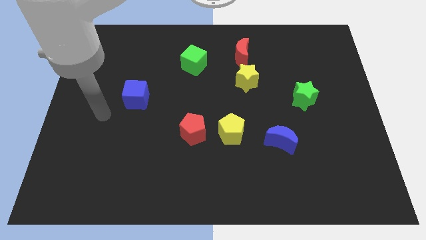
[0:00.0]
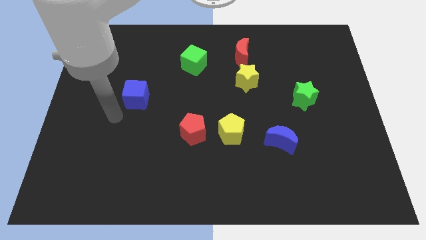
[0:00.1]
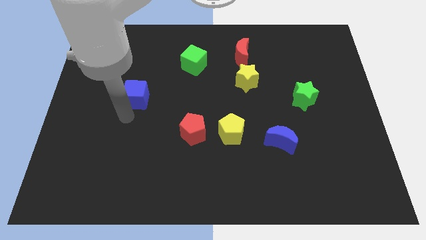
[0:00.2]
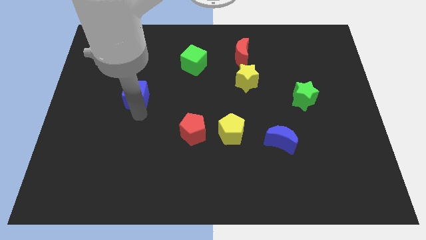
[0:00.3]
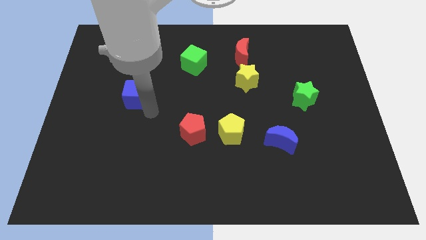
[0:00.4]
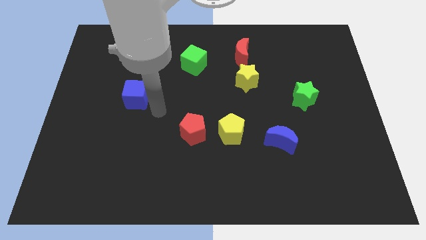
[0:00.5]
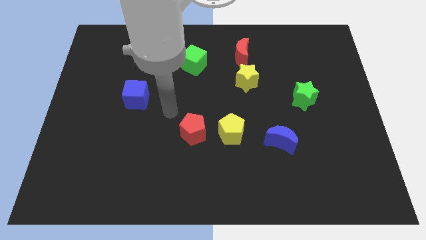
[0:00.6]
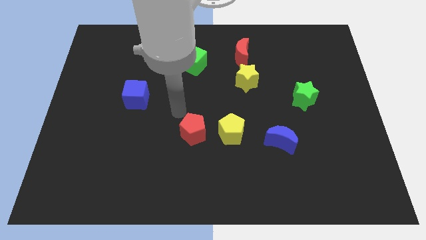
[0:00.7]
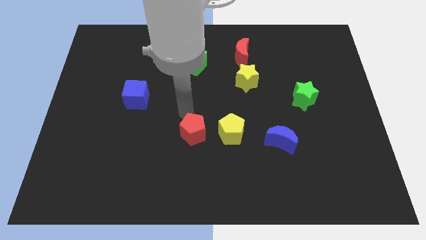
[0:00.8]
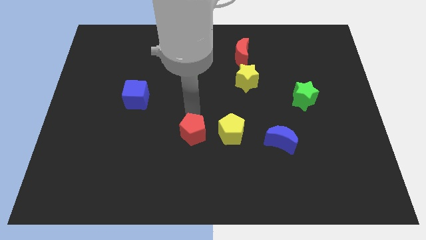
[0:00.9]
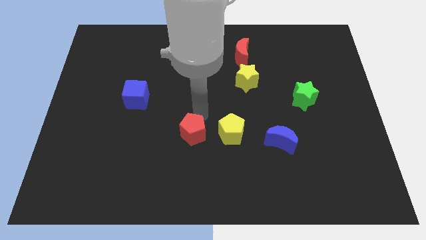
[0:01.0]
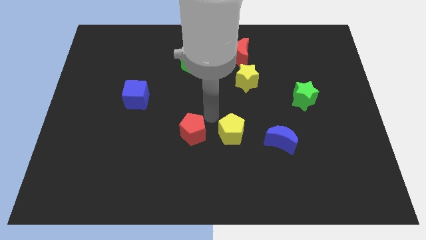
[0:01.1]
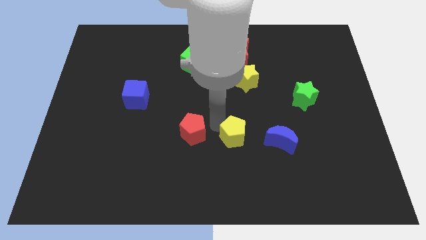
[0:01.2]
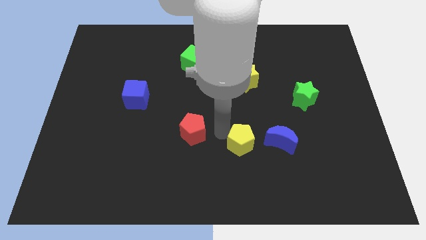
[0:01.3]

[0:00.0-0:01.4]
move the red pentagon away from the yellow pentagon

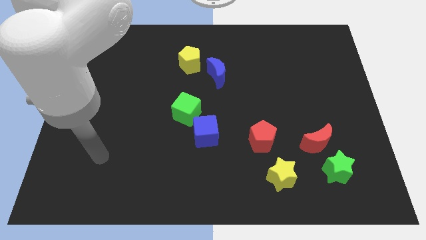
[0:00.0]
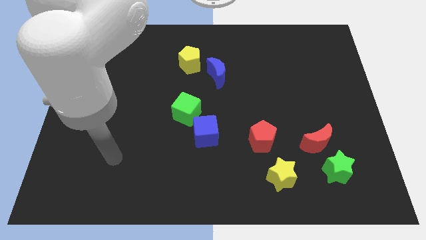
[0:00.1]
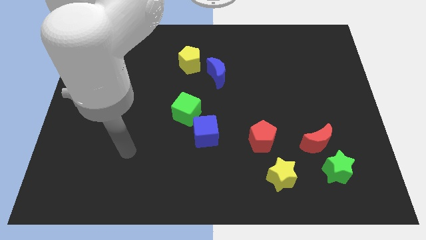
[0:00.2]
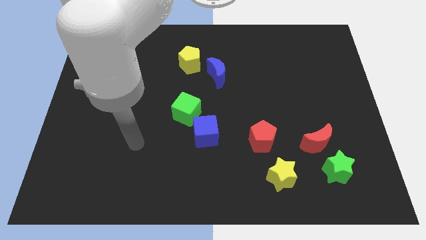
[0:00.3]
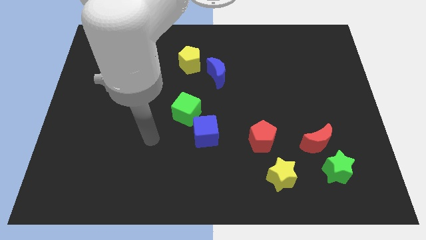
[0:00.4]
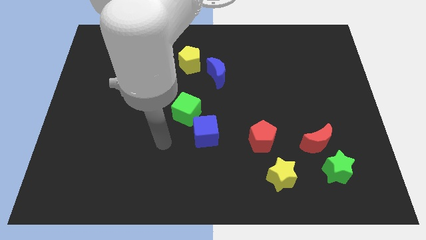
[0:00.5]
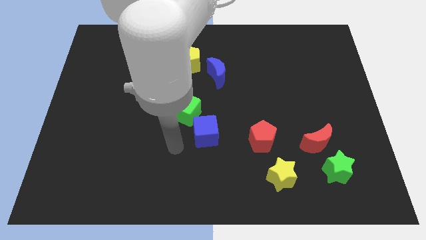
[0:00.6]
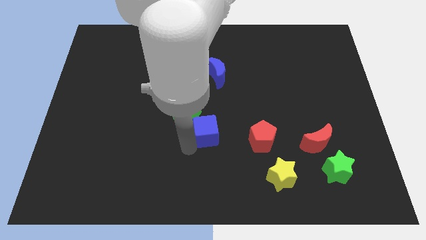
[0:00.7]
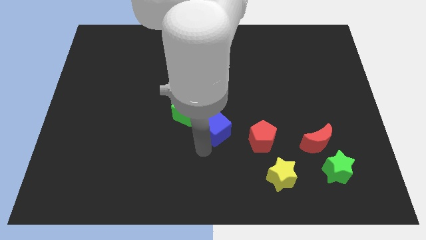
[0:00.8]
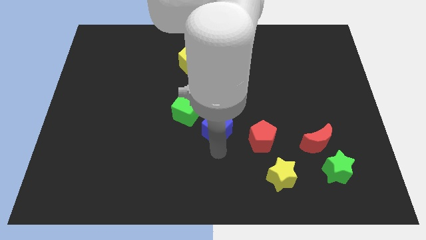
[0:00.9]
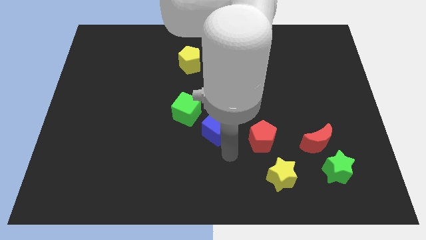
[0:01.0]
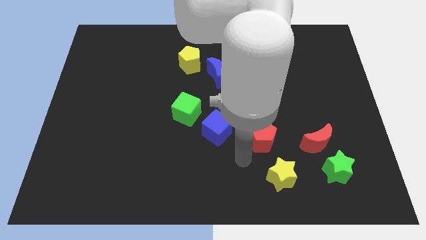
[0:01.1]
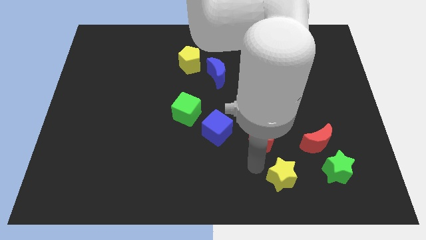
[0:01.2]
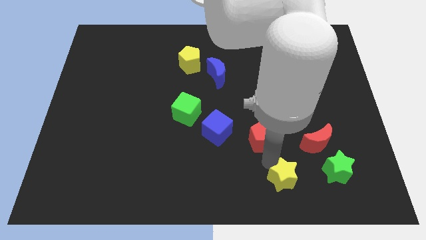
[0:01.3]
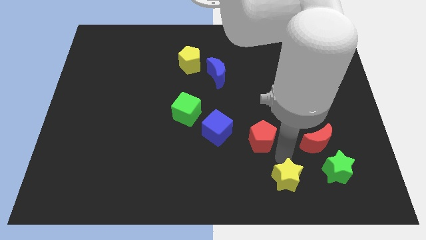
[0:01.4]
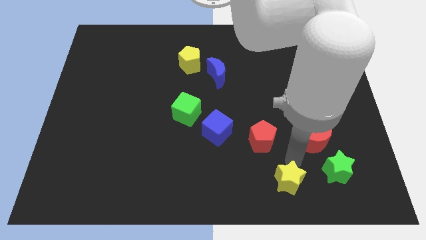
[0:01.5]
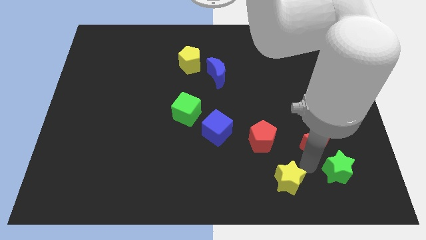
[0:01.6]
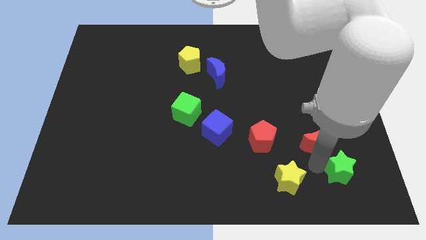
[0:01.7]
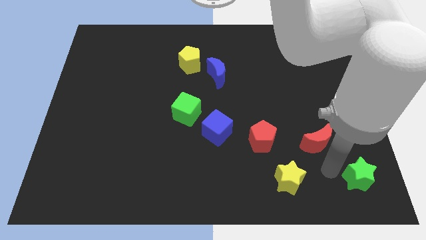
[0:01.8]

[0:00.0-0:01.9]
pull the red moon apart from the green star

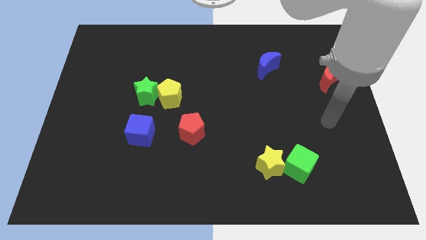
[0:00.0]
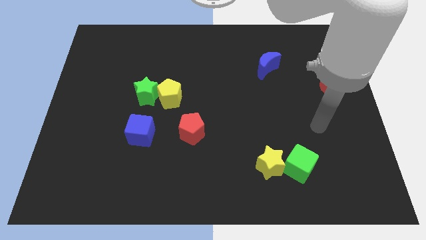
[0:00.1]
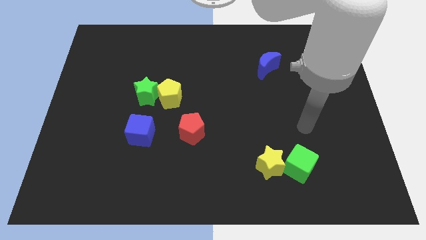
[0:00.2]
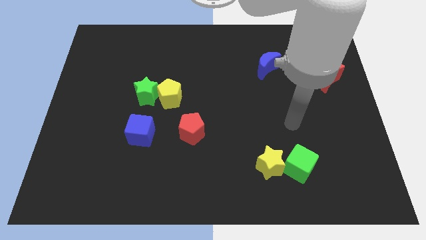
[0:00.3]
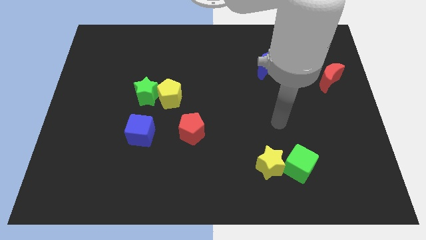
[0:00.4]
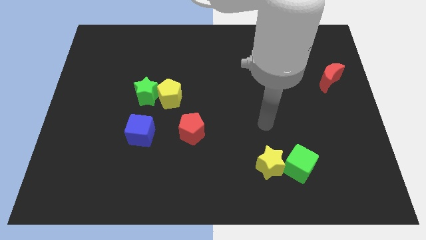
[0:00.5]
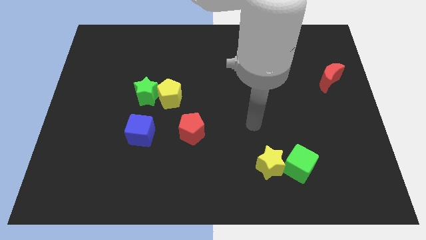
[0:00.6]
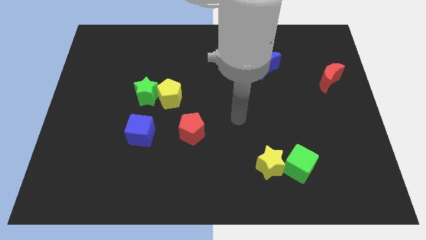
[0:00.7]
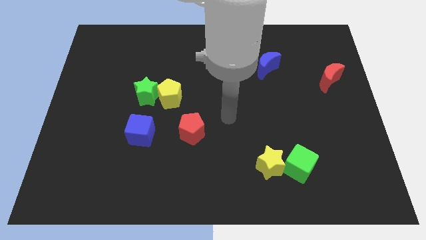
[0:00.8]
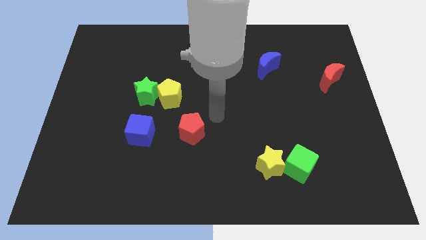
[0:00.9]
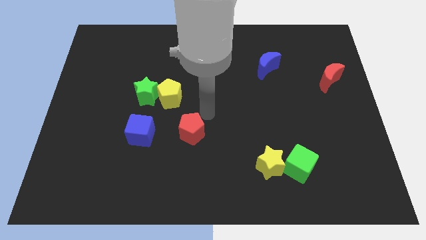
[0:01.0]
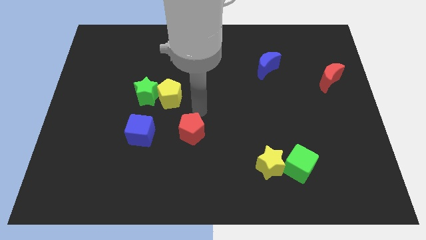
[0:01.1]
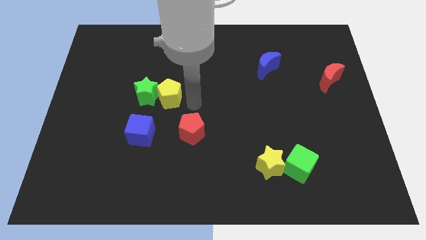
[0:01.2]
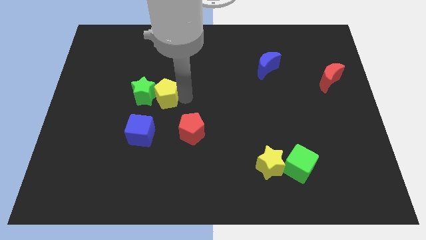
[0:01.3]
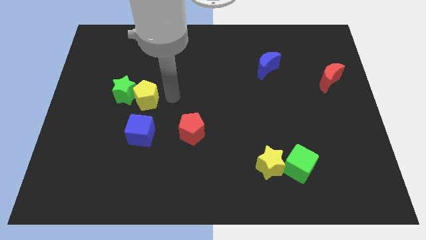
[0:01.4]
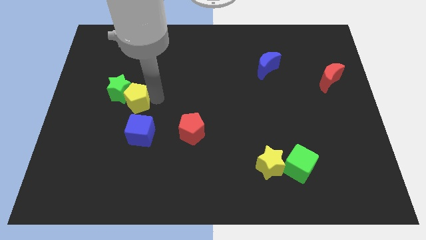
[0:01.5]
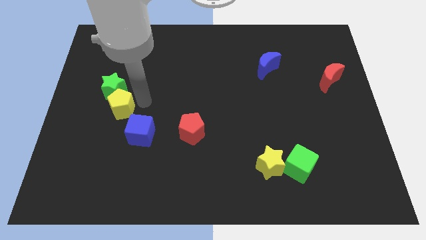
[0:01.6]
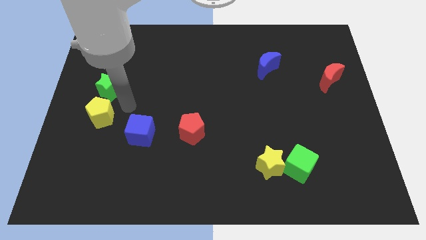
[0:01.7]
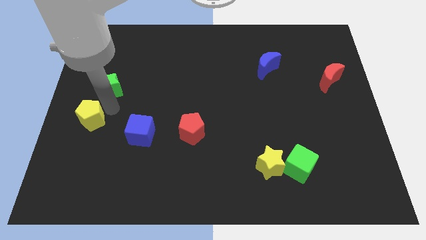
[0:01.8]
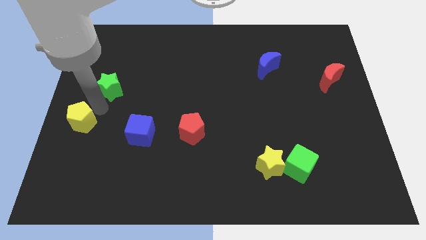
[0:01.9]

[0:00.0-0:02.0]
move the green star away from the yellow pentagon

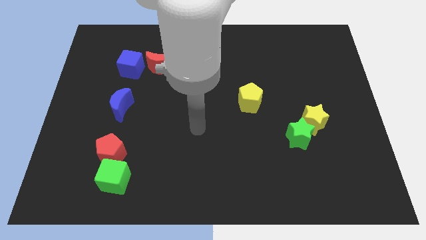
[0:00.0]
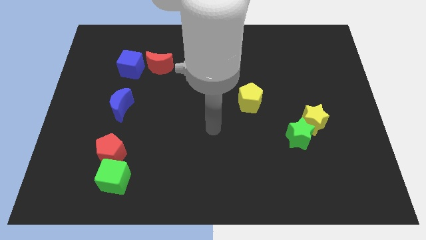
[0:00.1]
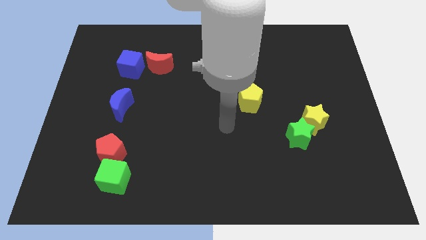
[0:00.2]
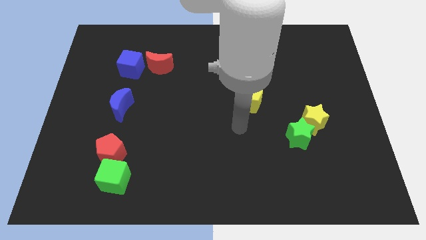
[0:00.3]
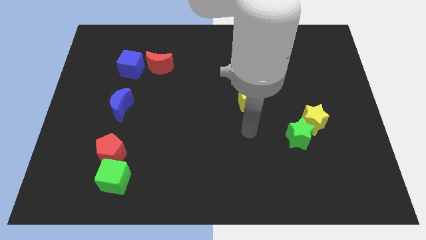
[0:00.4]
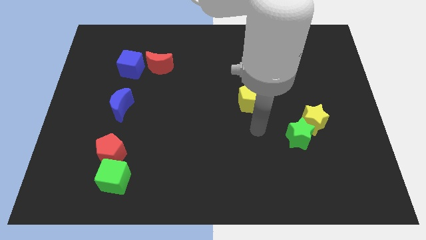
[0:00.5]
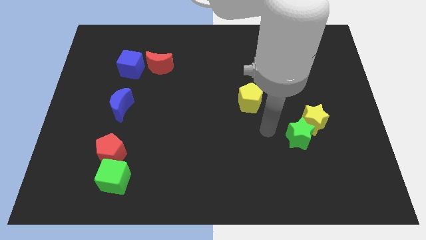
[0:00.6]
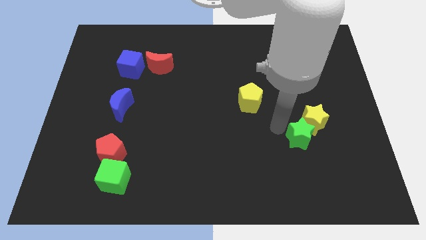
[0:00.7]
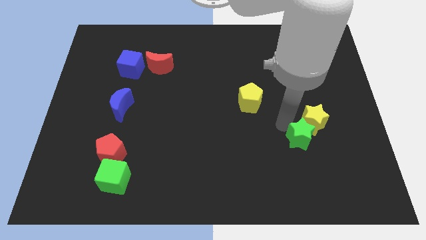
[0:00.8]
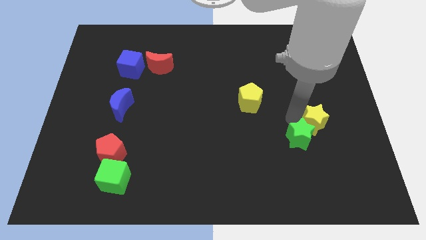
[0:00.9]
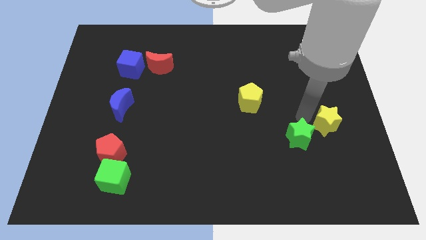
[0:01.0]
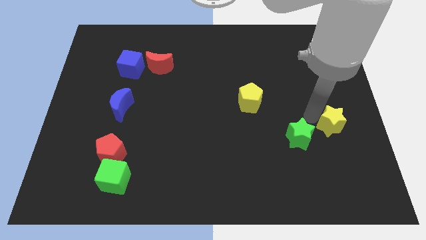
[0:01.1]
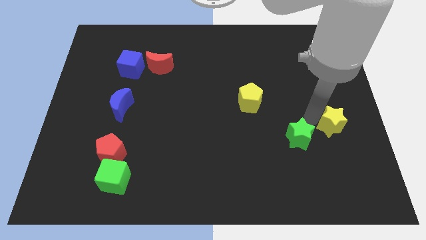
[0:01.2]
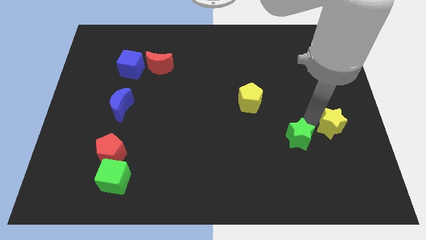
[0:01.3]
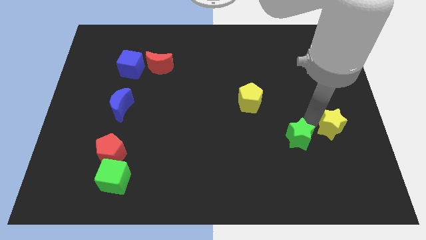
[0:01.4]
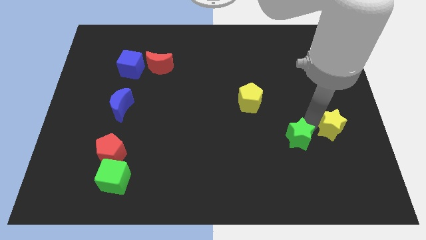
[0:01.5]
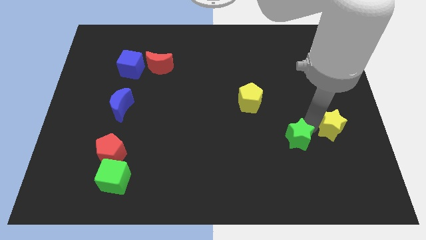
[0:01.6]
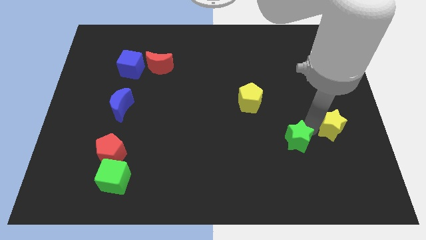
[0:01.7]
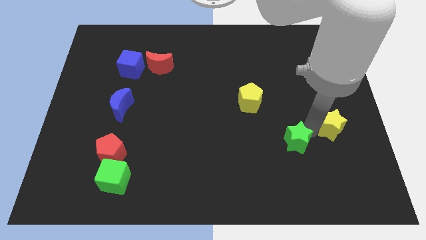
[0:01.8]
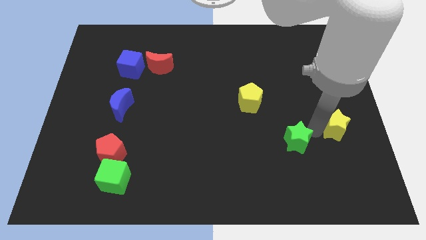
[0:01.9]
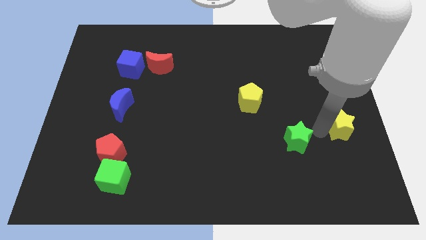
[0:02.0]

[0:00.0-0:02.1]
move the green star away from the yellow star

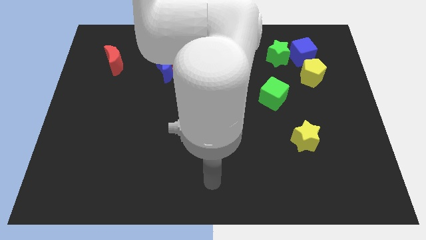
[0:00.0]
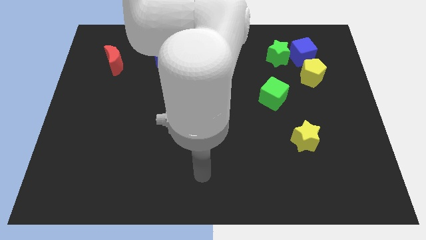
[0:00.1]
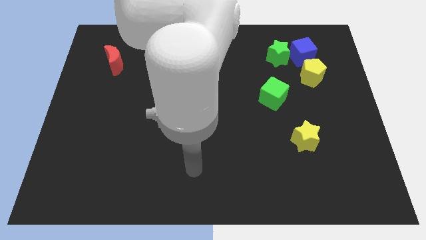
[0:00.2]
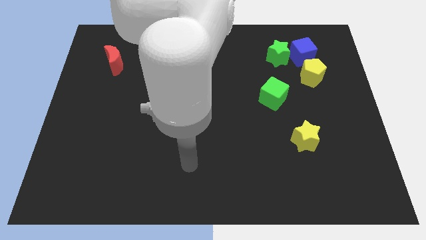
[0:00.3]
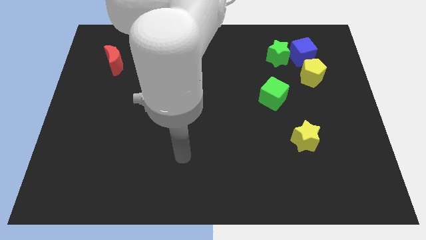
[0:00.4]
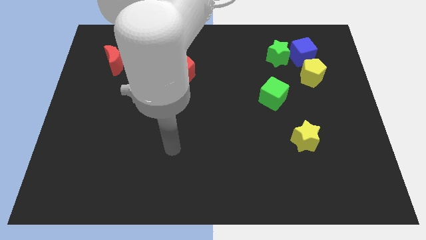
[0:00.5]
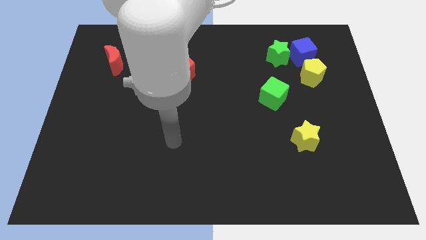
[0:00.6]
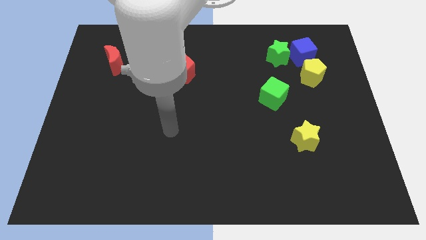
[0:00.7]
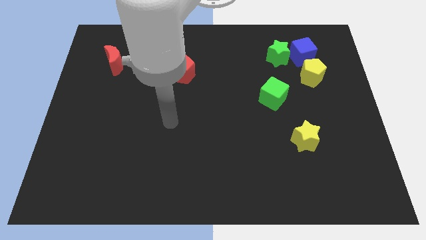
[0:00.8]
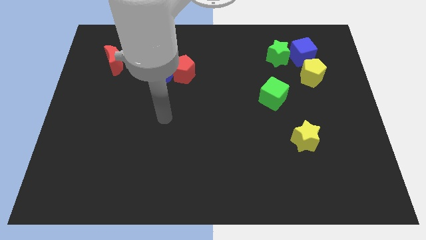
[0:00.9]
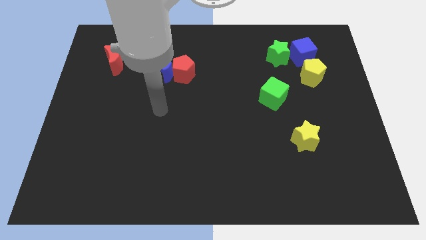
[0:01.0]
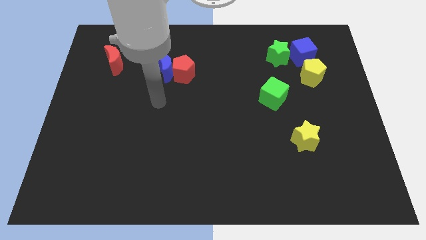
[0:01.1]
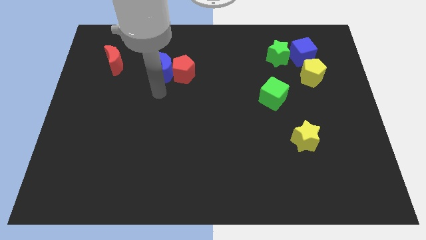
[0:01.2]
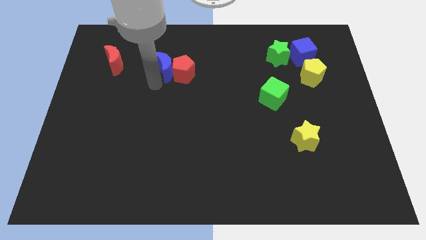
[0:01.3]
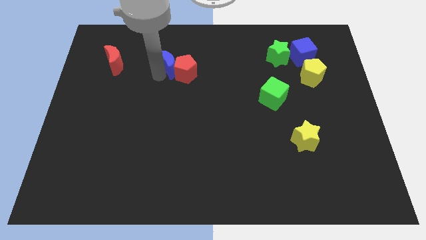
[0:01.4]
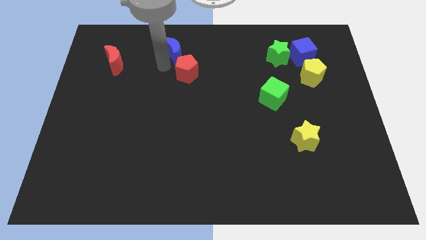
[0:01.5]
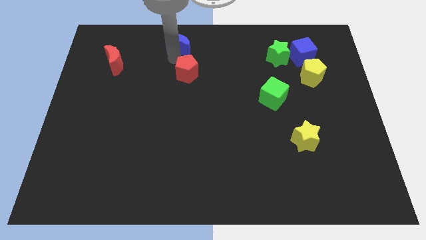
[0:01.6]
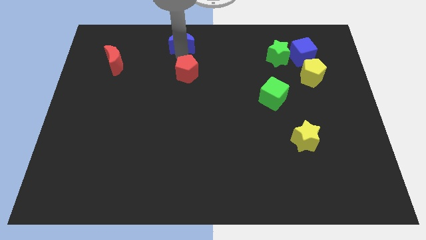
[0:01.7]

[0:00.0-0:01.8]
move the red pentagon away from the blue moon

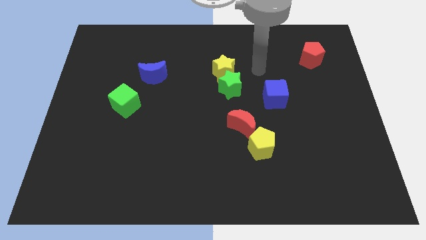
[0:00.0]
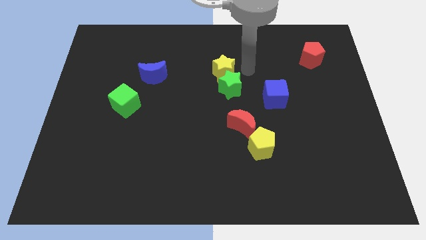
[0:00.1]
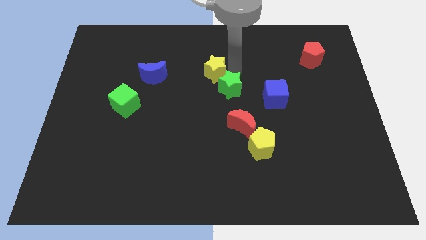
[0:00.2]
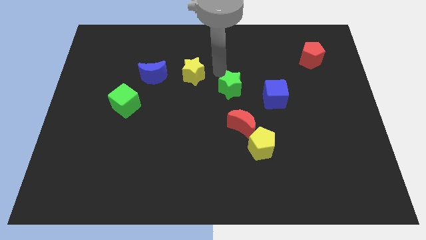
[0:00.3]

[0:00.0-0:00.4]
pull the green star apart from the yellow star
